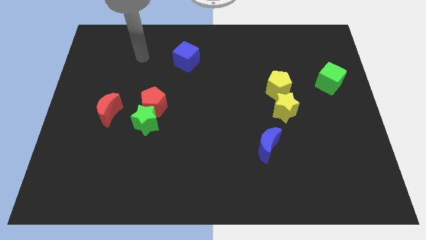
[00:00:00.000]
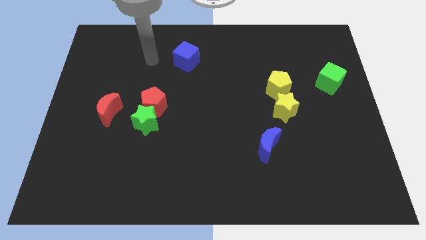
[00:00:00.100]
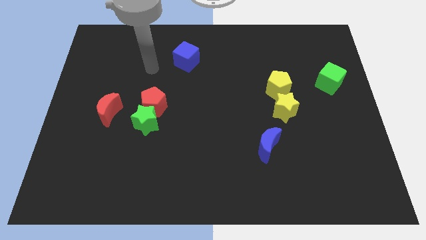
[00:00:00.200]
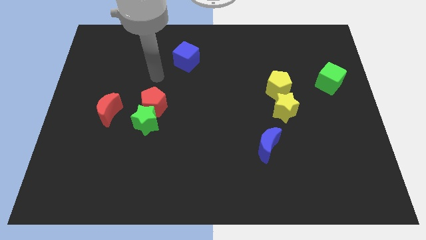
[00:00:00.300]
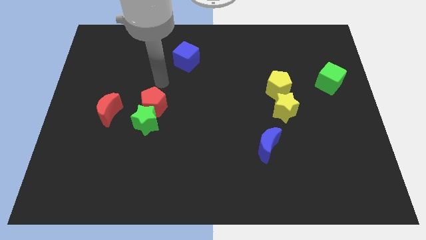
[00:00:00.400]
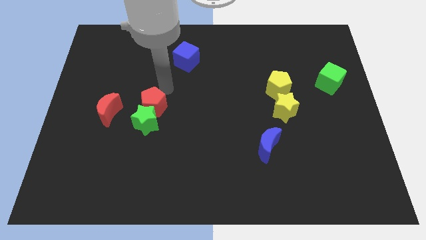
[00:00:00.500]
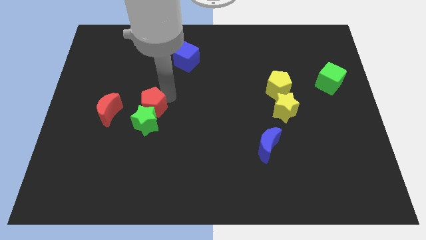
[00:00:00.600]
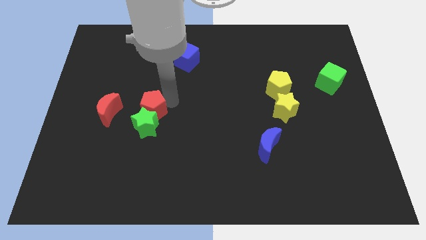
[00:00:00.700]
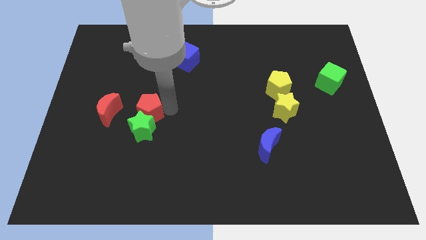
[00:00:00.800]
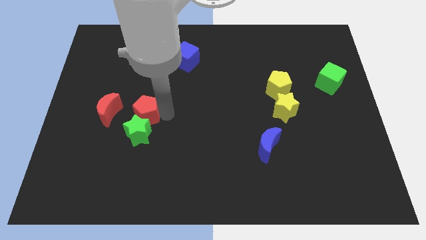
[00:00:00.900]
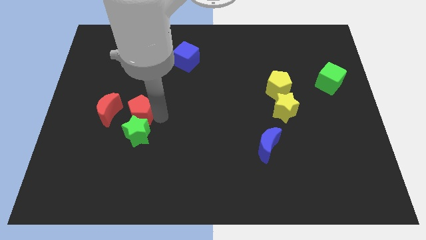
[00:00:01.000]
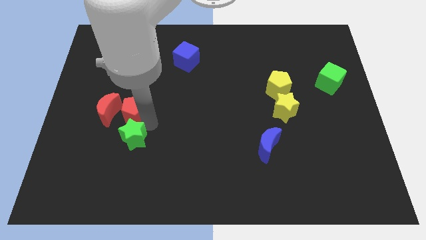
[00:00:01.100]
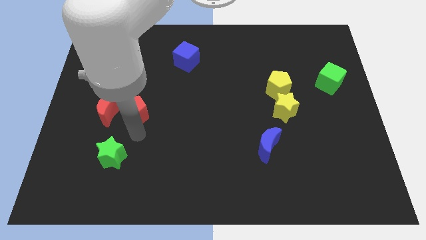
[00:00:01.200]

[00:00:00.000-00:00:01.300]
pull the red pentagon apart from the green star

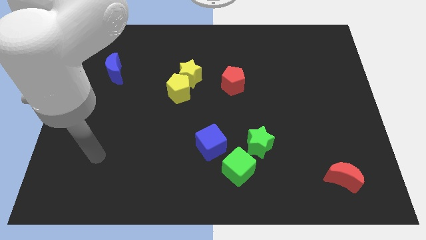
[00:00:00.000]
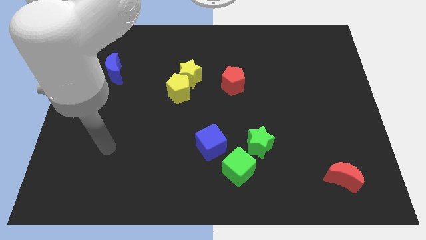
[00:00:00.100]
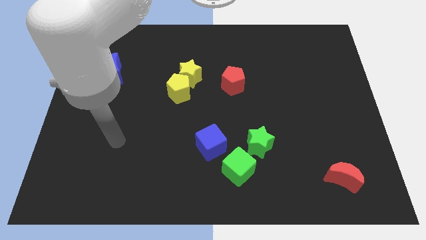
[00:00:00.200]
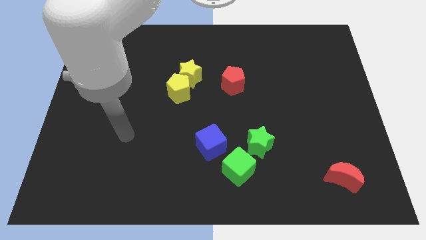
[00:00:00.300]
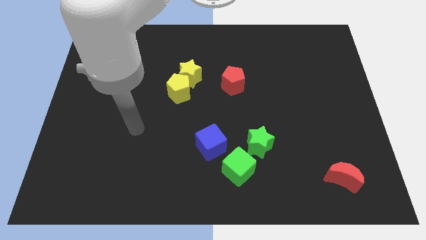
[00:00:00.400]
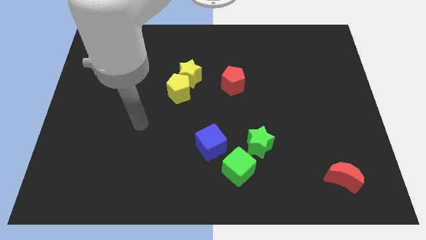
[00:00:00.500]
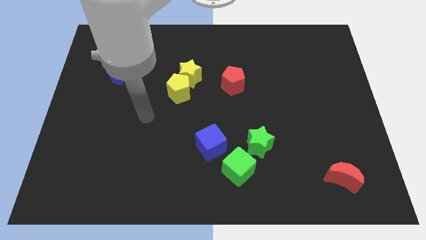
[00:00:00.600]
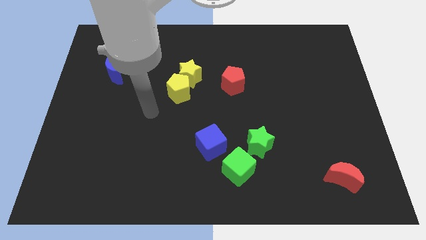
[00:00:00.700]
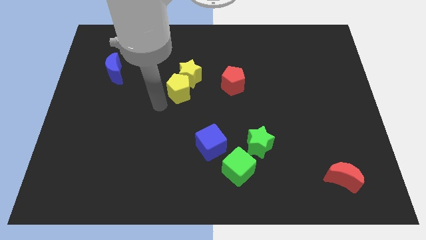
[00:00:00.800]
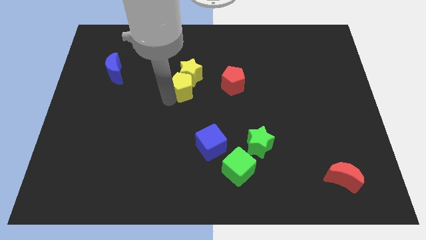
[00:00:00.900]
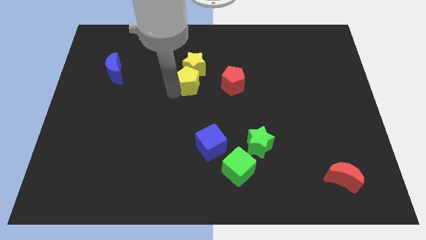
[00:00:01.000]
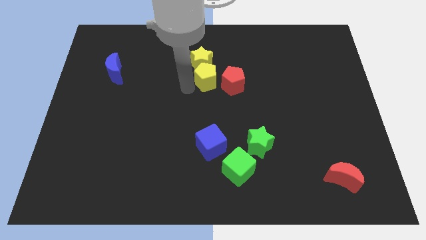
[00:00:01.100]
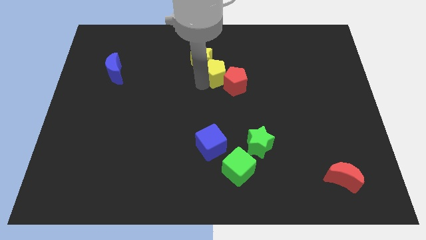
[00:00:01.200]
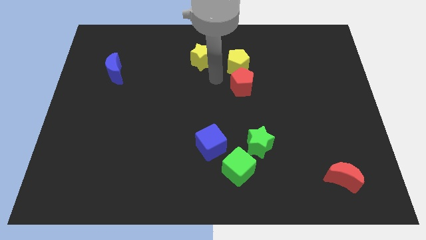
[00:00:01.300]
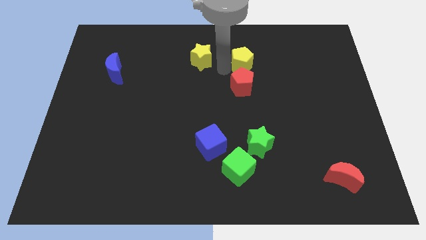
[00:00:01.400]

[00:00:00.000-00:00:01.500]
move the yellow star away from the yellow pentagon

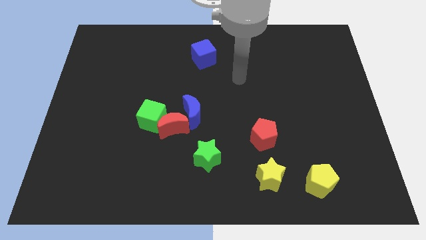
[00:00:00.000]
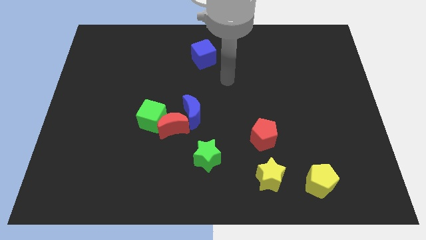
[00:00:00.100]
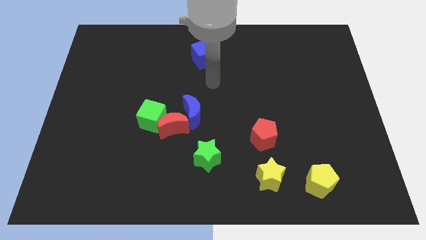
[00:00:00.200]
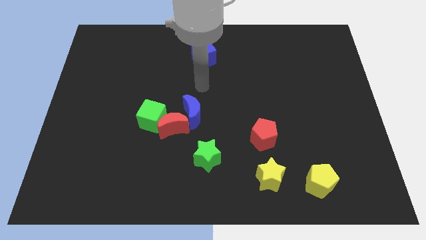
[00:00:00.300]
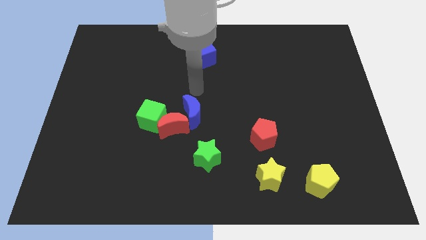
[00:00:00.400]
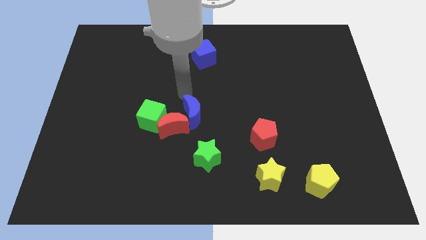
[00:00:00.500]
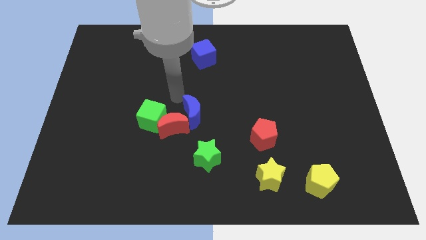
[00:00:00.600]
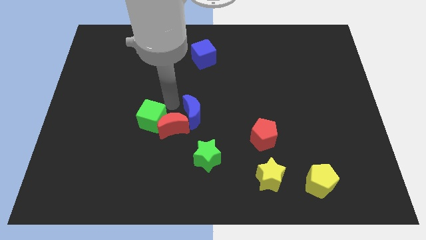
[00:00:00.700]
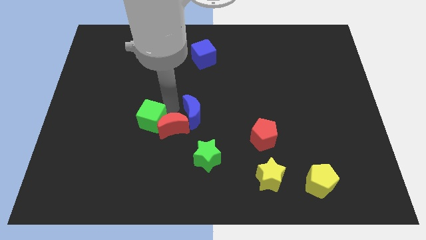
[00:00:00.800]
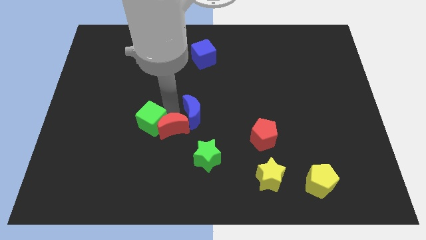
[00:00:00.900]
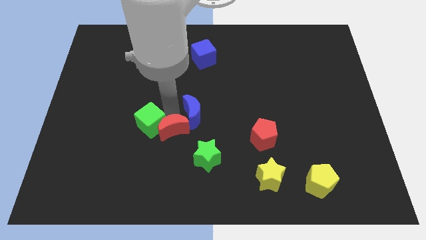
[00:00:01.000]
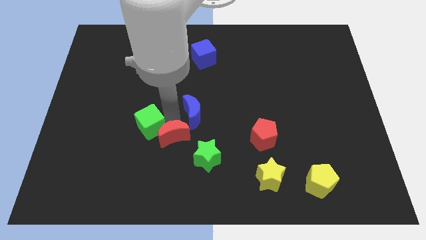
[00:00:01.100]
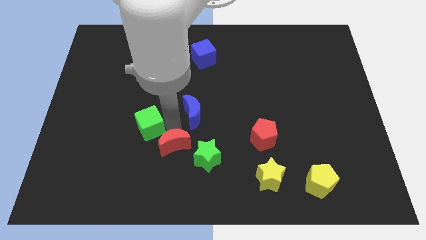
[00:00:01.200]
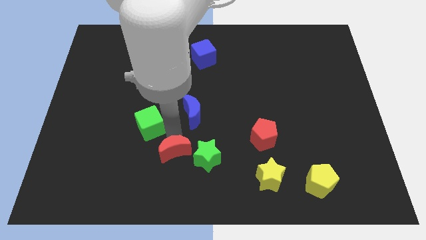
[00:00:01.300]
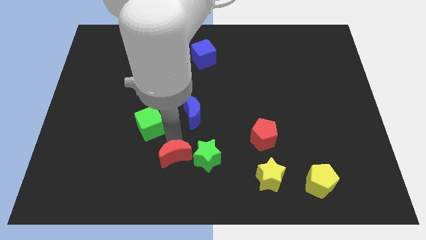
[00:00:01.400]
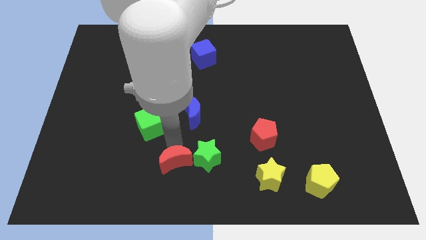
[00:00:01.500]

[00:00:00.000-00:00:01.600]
separate the red moon from the green cube and blue moon

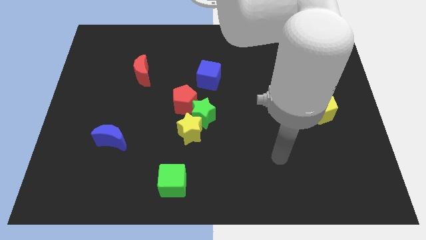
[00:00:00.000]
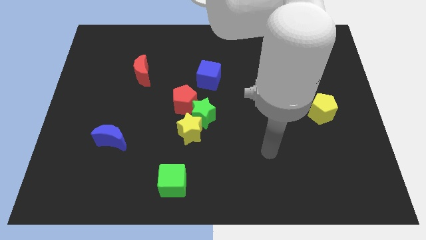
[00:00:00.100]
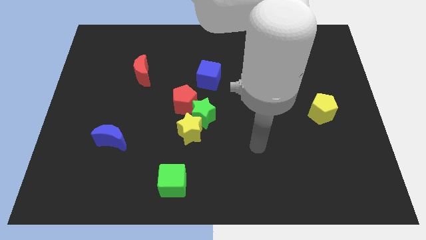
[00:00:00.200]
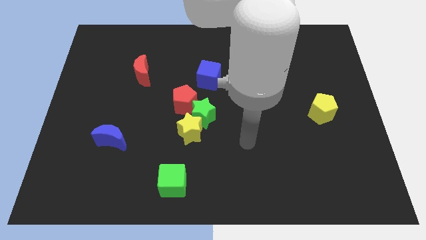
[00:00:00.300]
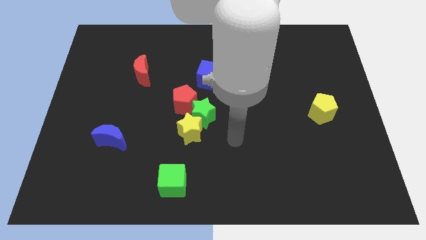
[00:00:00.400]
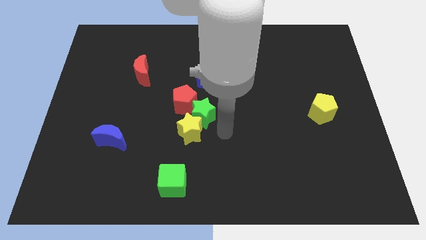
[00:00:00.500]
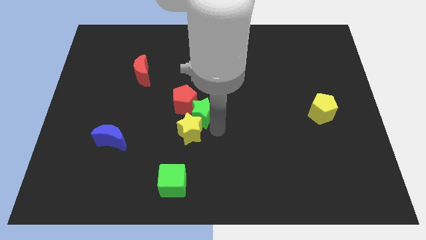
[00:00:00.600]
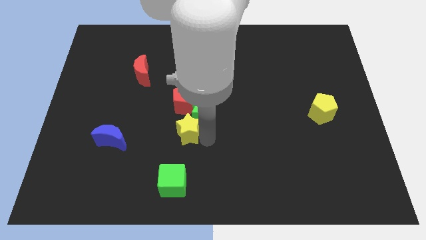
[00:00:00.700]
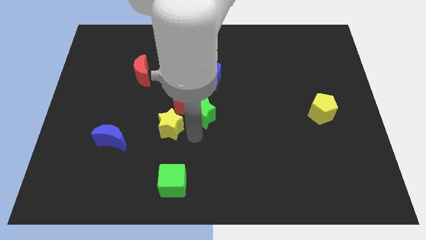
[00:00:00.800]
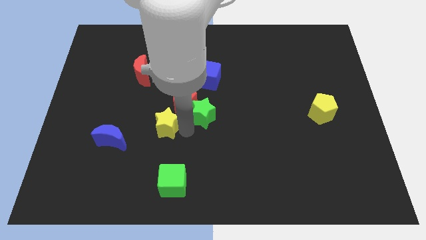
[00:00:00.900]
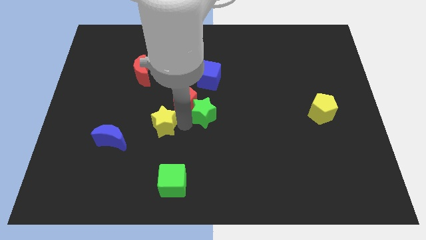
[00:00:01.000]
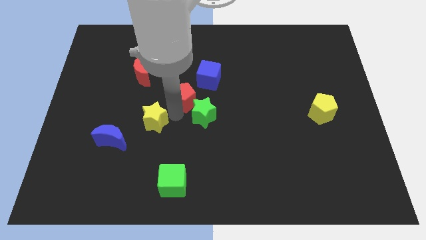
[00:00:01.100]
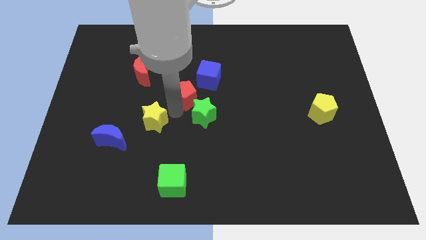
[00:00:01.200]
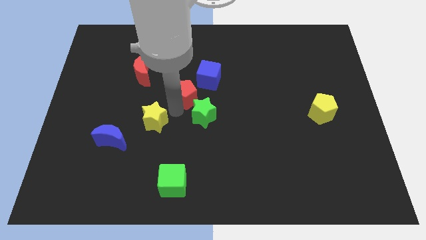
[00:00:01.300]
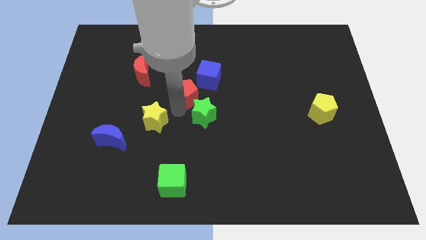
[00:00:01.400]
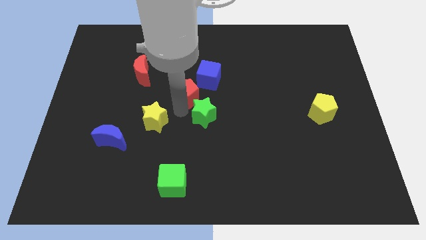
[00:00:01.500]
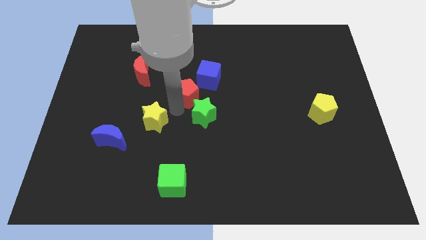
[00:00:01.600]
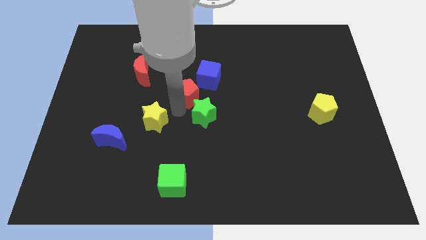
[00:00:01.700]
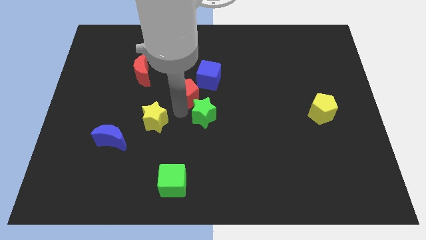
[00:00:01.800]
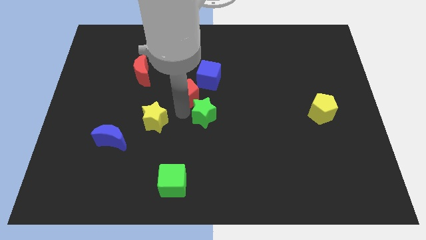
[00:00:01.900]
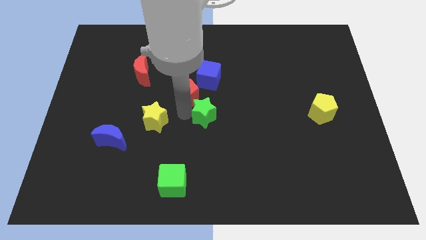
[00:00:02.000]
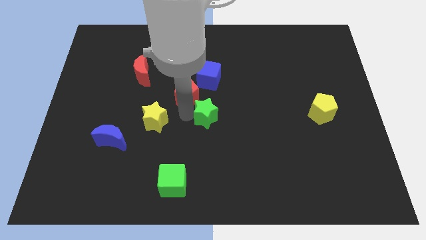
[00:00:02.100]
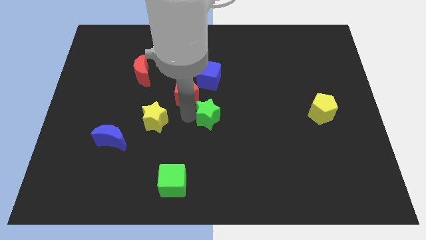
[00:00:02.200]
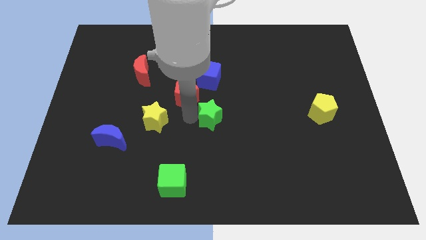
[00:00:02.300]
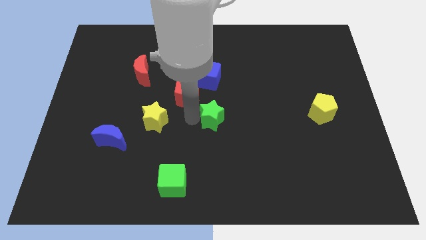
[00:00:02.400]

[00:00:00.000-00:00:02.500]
pull the green star apart from the yellow star and red pentagon

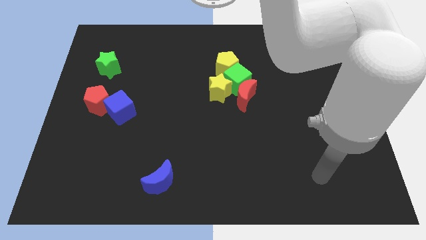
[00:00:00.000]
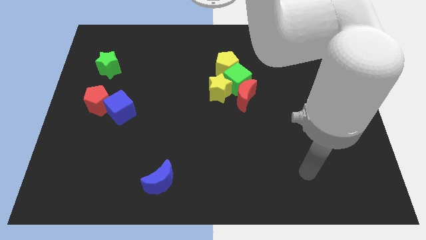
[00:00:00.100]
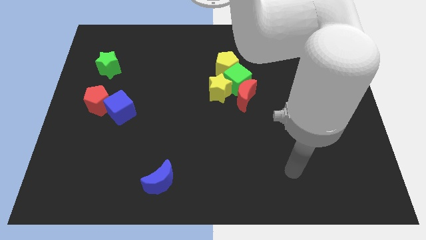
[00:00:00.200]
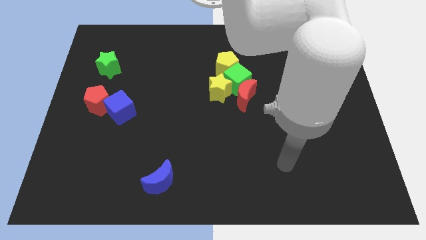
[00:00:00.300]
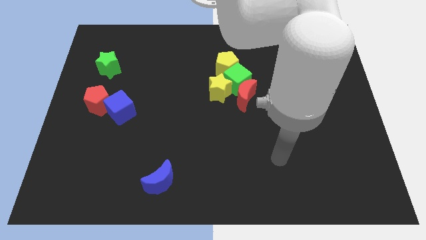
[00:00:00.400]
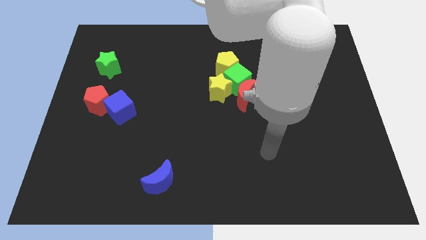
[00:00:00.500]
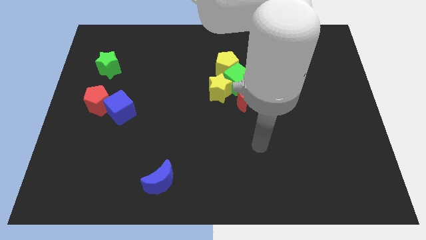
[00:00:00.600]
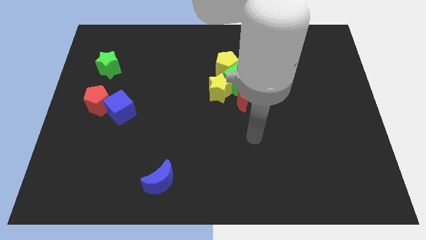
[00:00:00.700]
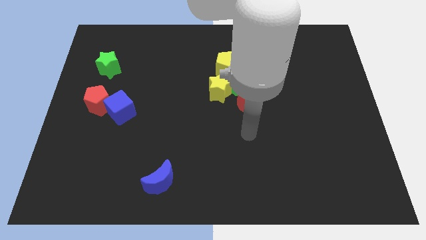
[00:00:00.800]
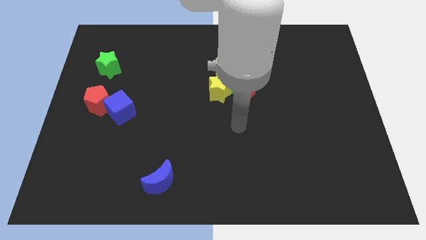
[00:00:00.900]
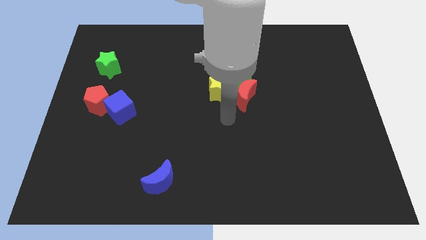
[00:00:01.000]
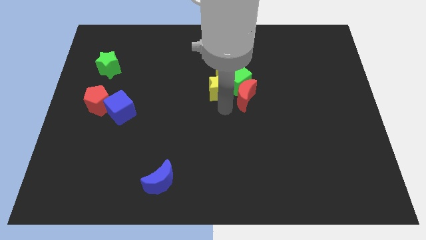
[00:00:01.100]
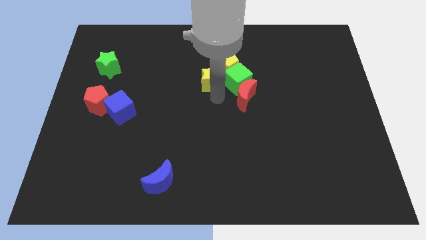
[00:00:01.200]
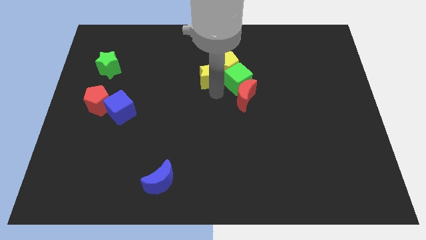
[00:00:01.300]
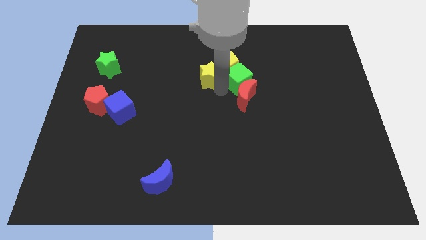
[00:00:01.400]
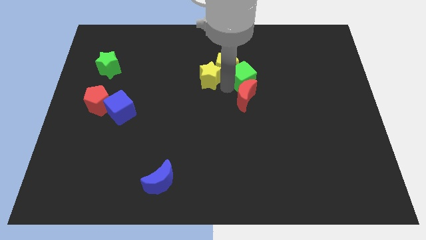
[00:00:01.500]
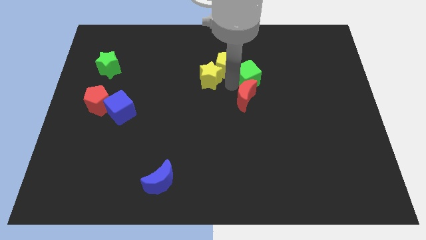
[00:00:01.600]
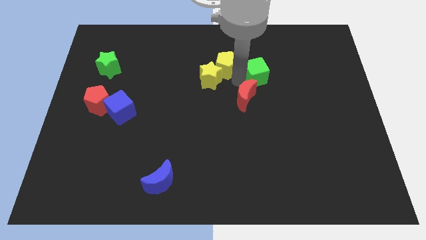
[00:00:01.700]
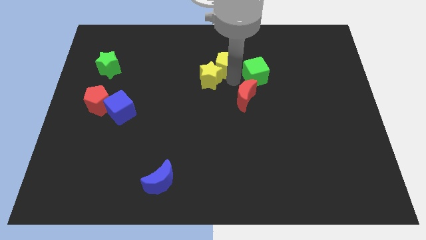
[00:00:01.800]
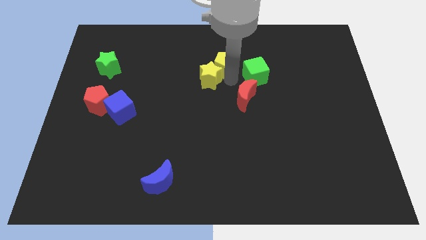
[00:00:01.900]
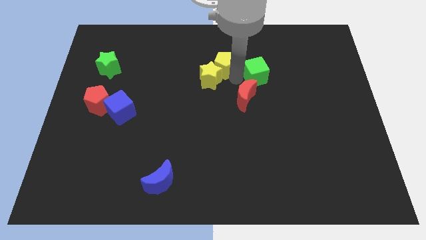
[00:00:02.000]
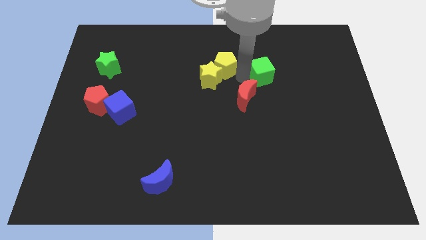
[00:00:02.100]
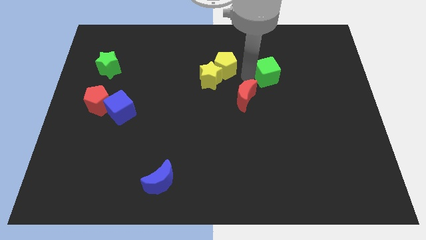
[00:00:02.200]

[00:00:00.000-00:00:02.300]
move the green cube away from the red moon, yellow star, and yellow pentagon
